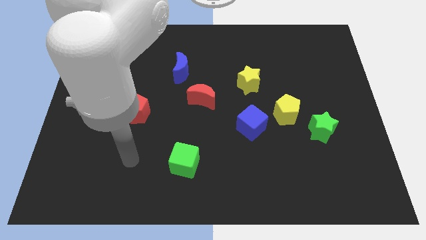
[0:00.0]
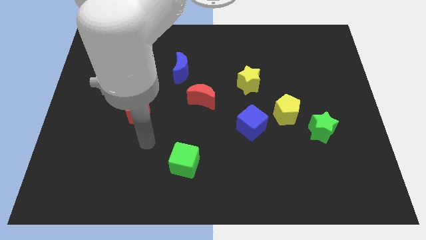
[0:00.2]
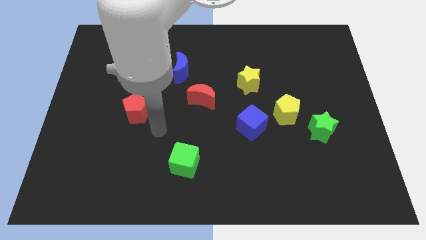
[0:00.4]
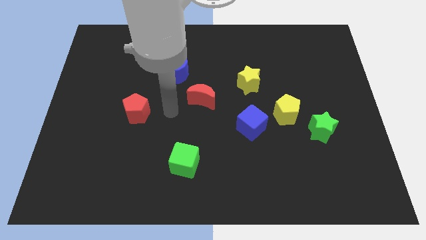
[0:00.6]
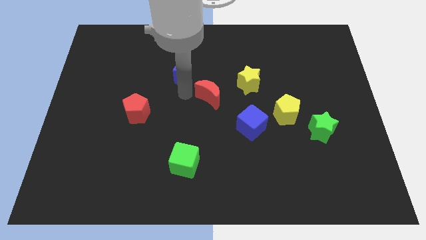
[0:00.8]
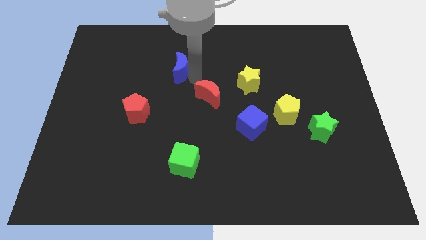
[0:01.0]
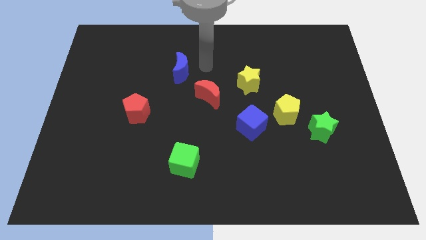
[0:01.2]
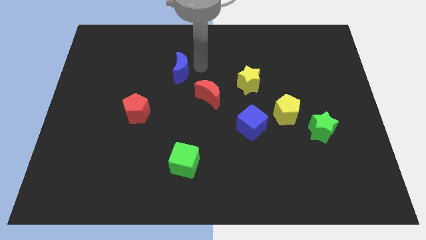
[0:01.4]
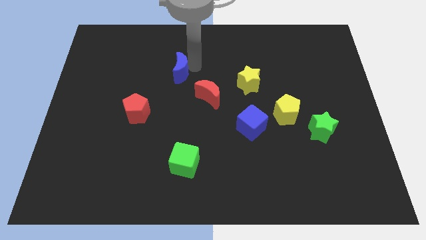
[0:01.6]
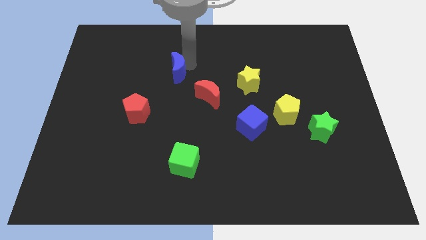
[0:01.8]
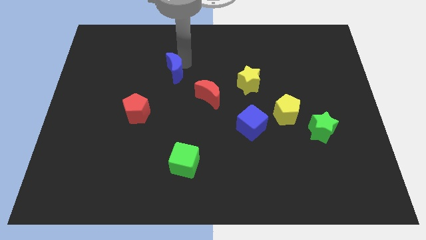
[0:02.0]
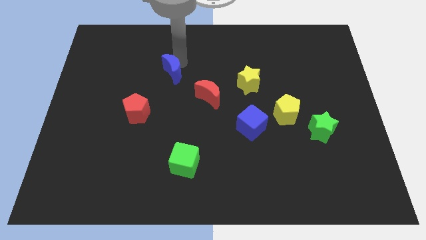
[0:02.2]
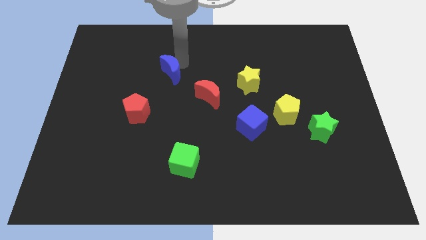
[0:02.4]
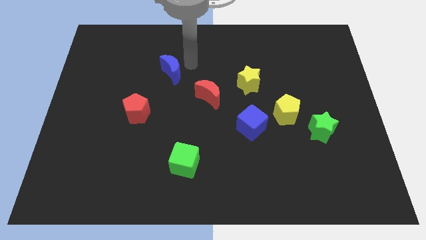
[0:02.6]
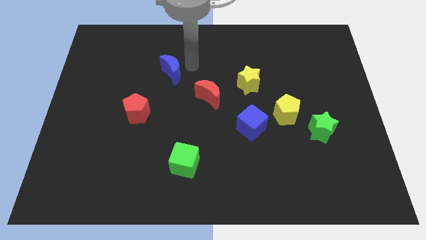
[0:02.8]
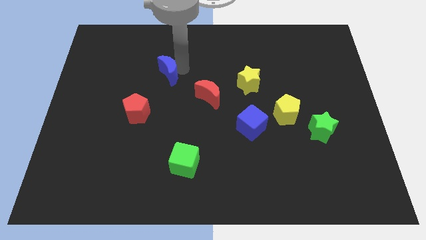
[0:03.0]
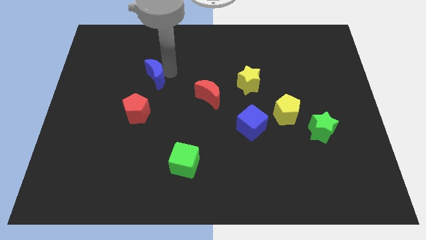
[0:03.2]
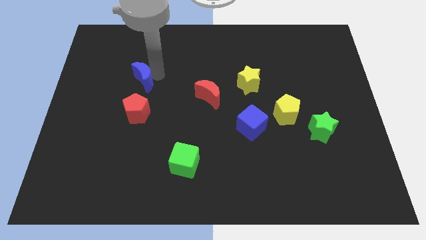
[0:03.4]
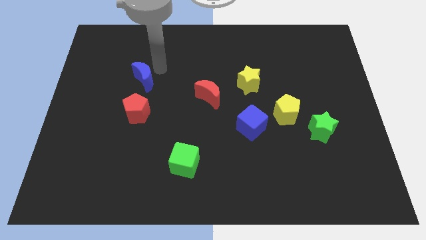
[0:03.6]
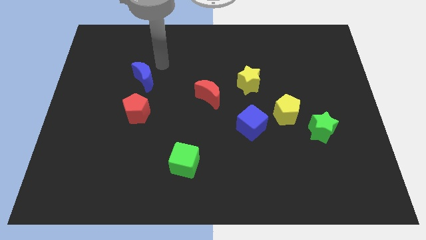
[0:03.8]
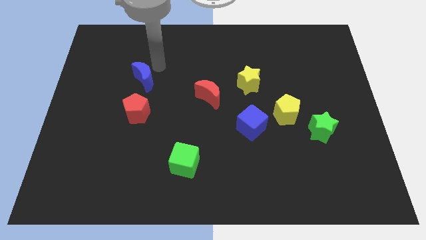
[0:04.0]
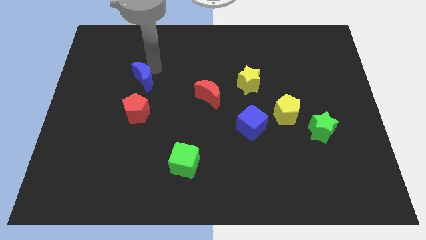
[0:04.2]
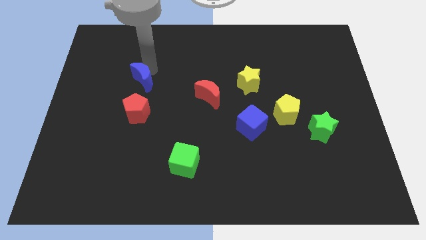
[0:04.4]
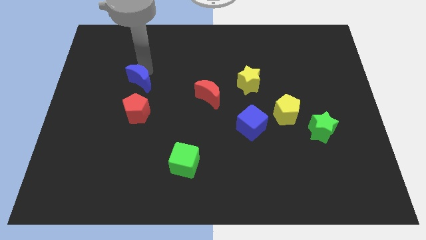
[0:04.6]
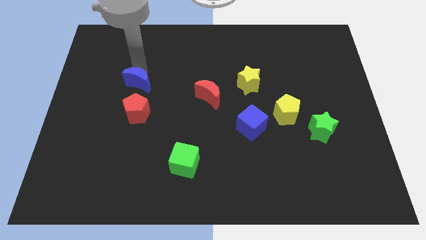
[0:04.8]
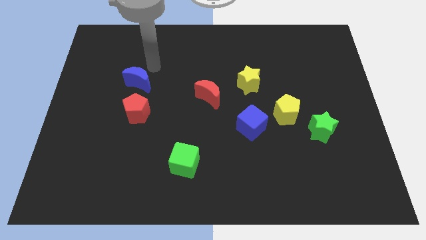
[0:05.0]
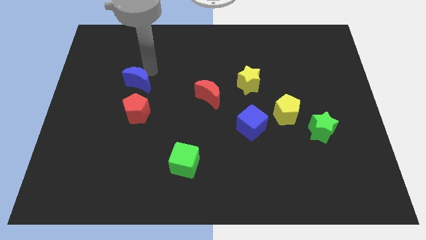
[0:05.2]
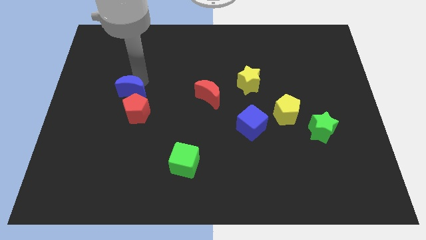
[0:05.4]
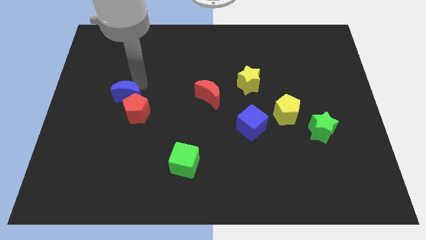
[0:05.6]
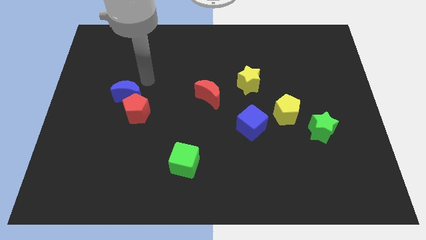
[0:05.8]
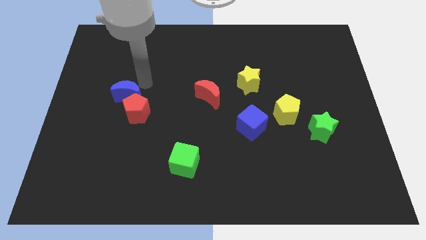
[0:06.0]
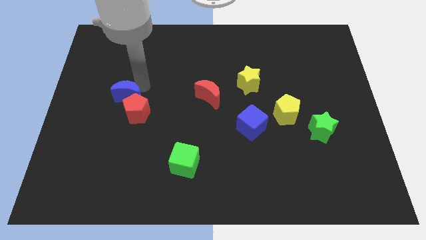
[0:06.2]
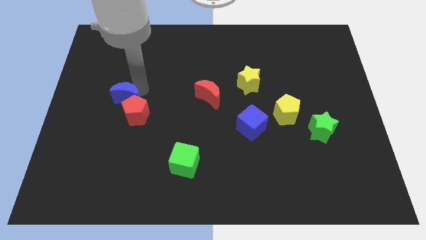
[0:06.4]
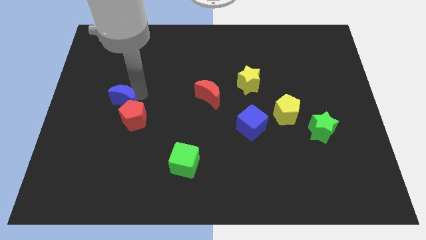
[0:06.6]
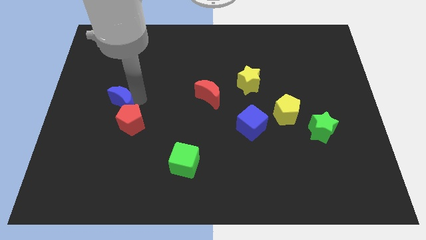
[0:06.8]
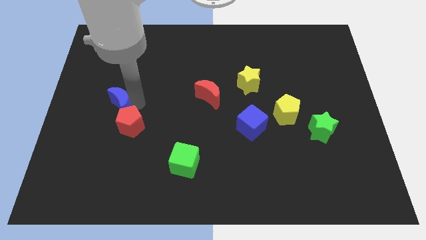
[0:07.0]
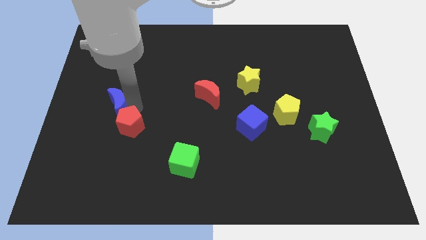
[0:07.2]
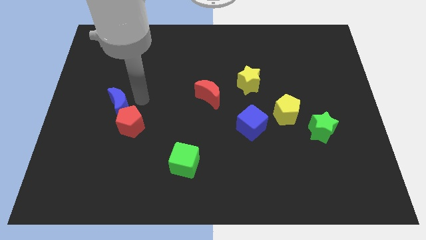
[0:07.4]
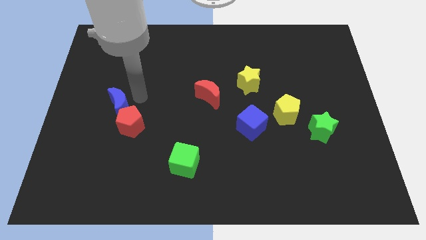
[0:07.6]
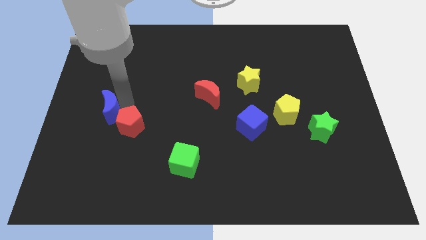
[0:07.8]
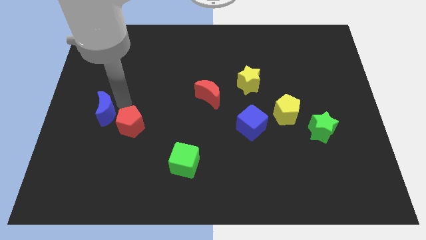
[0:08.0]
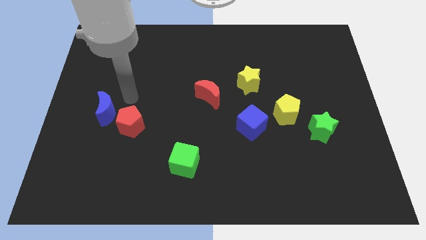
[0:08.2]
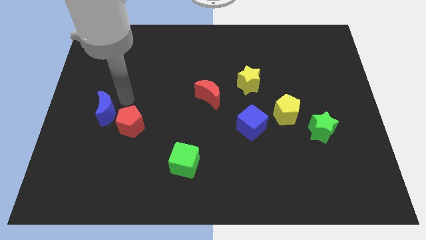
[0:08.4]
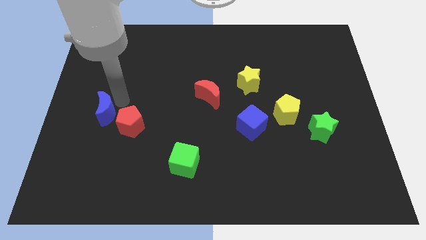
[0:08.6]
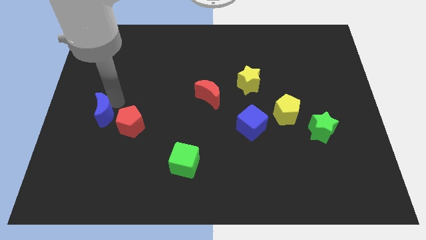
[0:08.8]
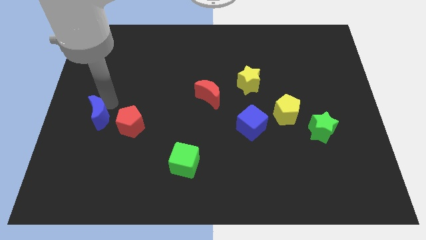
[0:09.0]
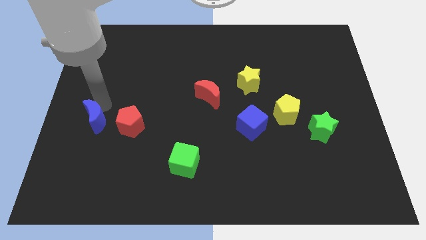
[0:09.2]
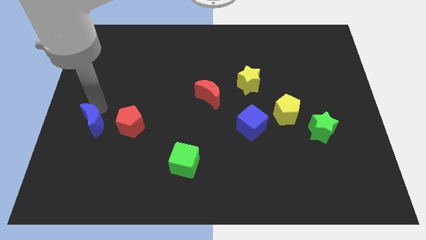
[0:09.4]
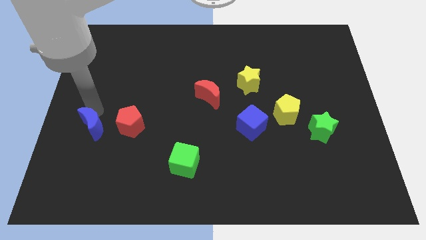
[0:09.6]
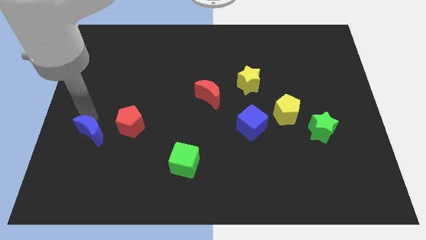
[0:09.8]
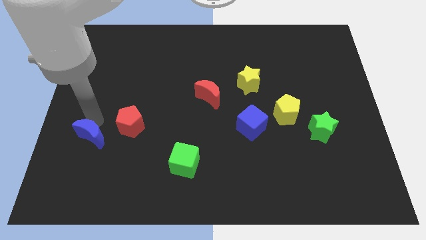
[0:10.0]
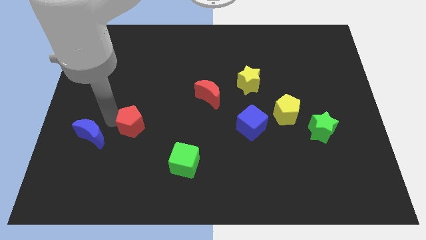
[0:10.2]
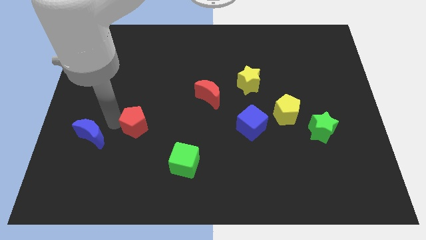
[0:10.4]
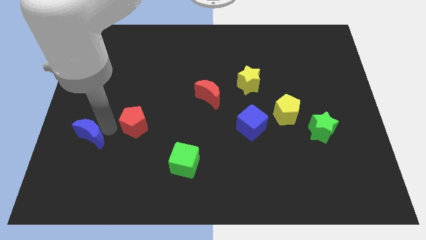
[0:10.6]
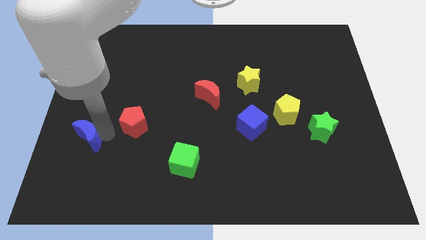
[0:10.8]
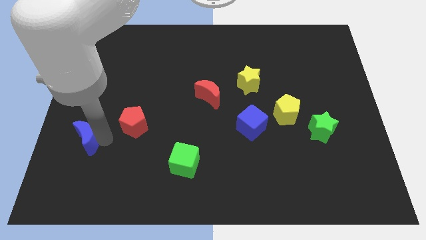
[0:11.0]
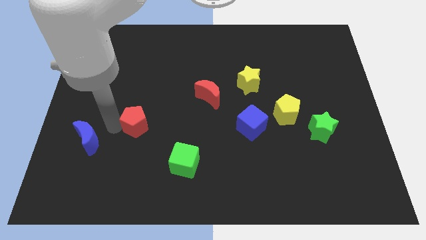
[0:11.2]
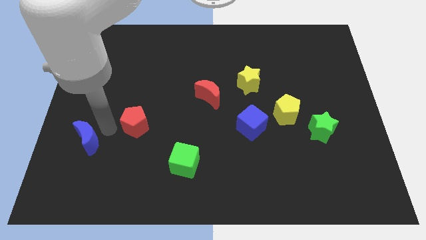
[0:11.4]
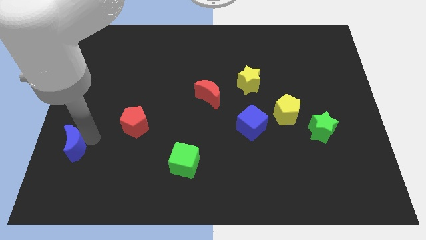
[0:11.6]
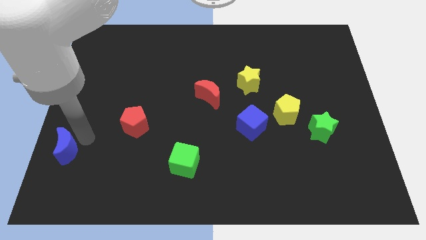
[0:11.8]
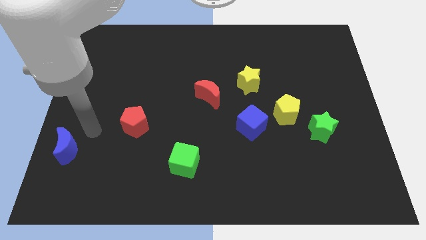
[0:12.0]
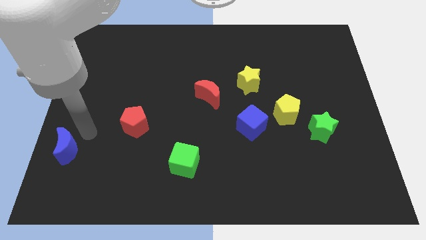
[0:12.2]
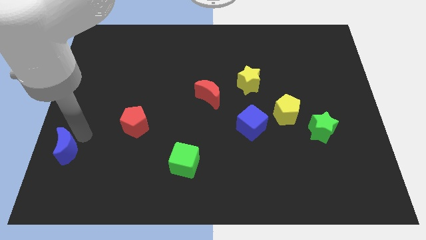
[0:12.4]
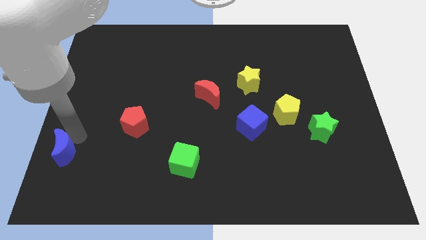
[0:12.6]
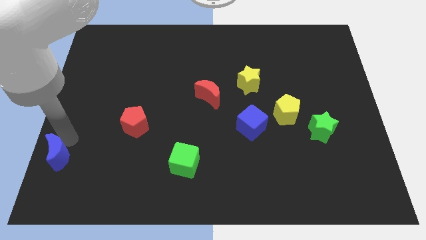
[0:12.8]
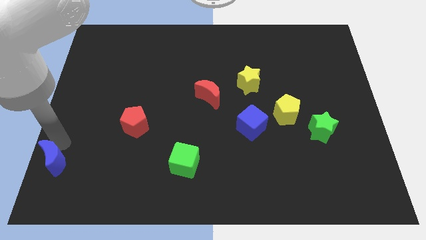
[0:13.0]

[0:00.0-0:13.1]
slide the blue moon to the bottom left of the board
